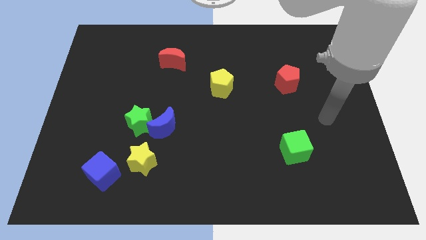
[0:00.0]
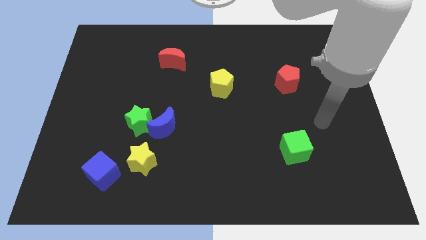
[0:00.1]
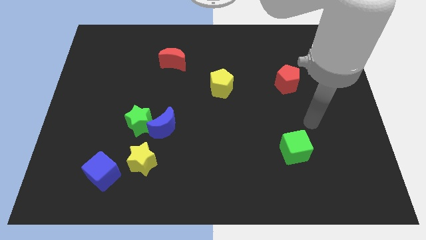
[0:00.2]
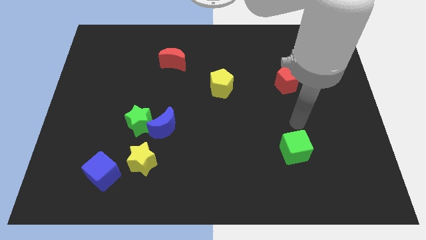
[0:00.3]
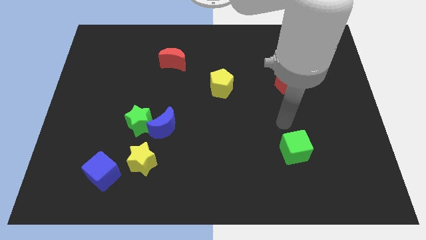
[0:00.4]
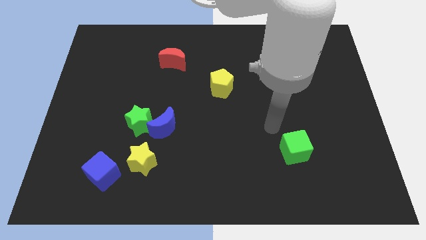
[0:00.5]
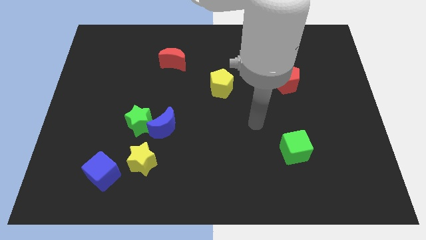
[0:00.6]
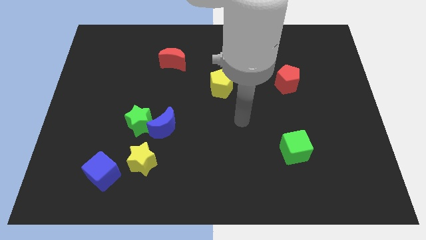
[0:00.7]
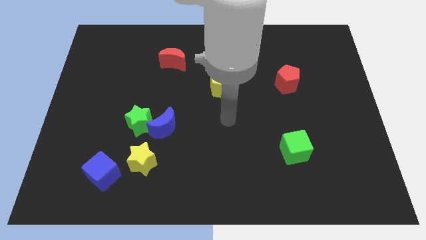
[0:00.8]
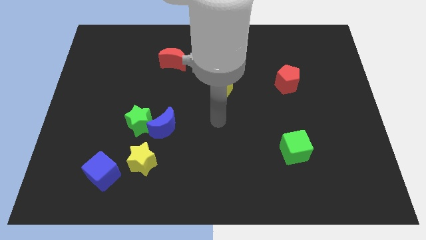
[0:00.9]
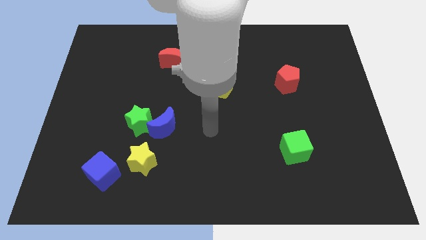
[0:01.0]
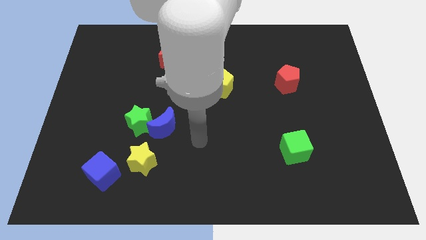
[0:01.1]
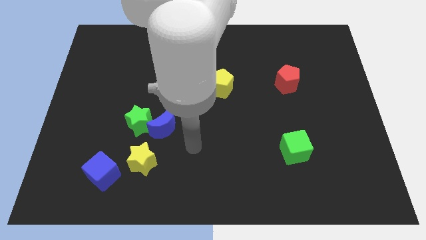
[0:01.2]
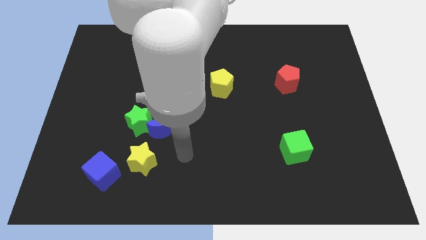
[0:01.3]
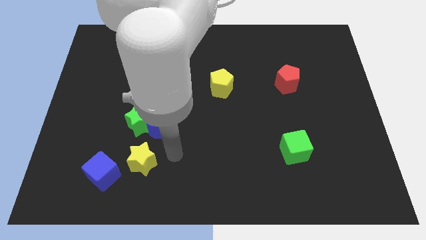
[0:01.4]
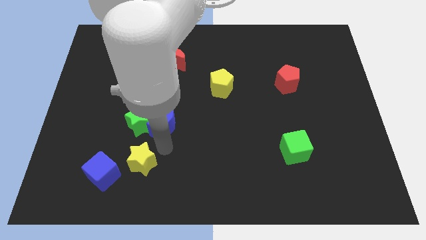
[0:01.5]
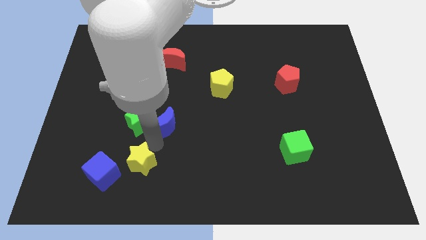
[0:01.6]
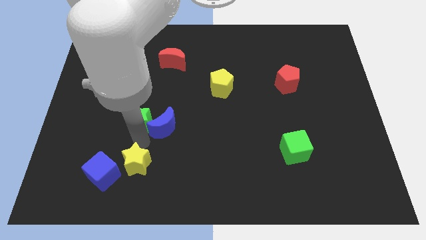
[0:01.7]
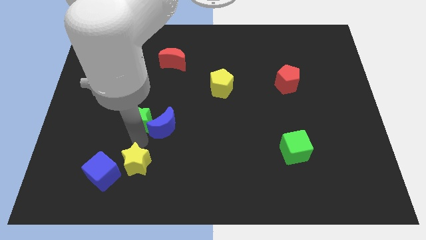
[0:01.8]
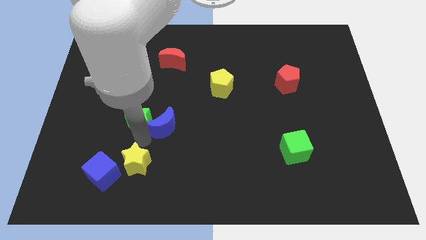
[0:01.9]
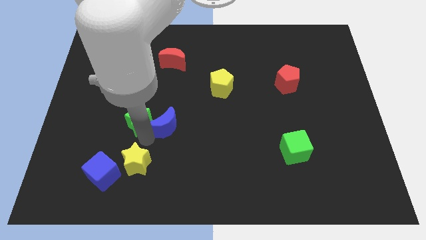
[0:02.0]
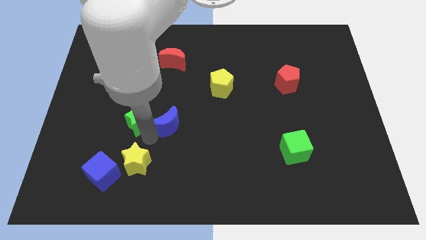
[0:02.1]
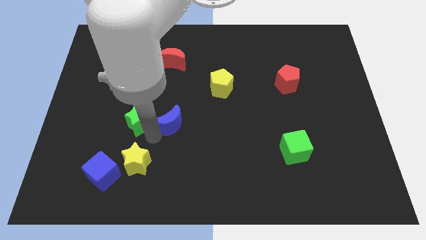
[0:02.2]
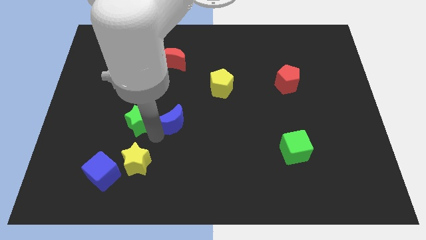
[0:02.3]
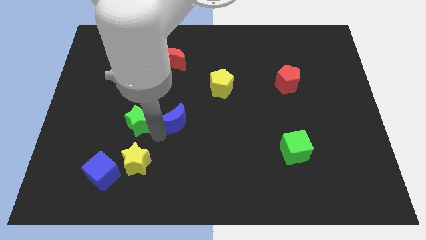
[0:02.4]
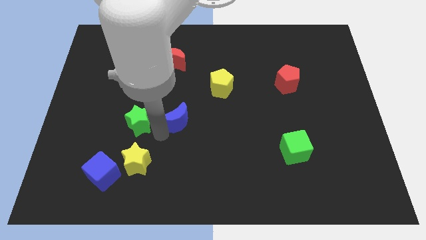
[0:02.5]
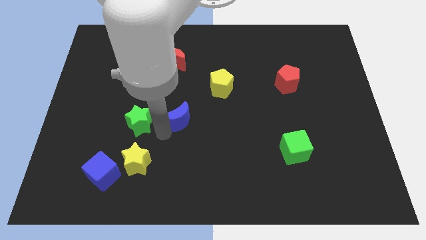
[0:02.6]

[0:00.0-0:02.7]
move the blue moon away from the green star and yellow star

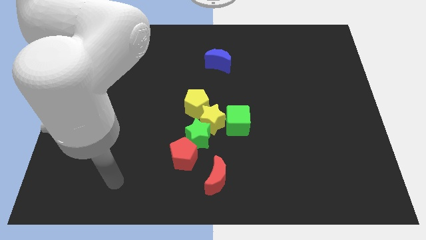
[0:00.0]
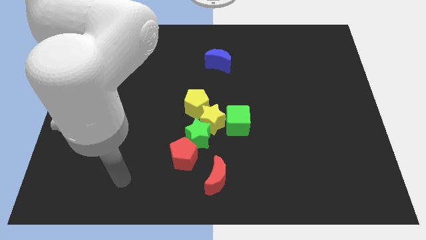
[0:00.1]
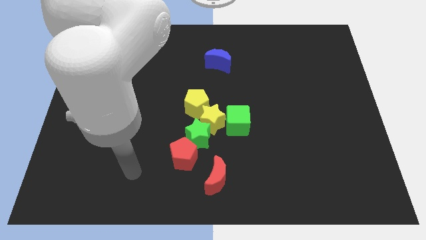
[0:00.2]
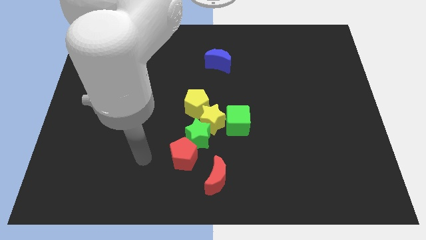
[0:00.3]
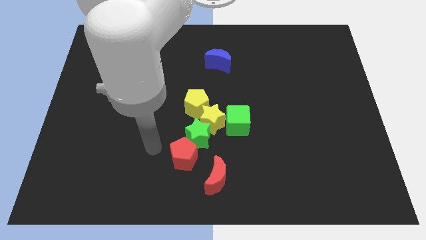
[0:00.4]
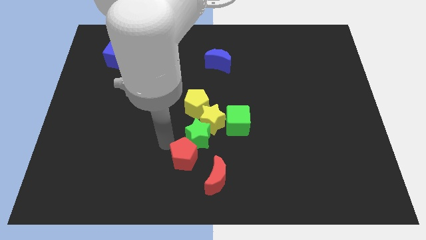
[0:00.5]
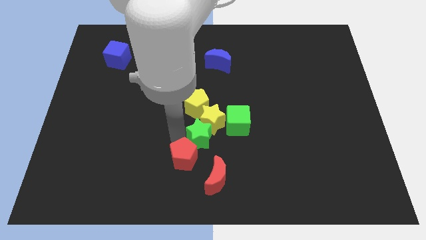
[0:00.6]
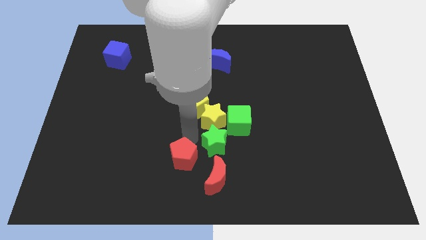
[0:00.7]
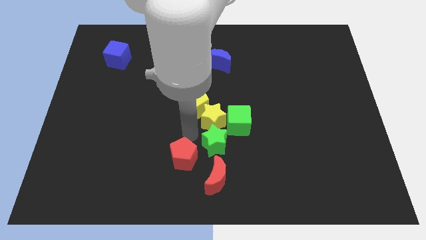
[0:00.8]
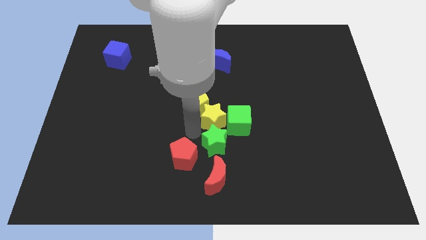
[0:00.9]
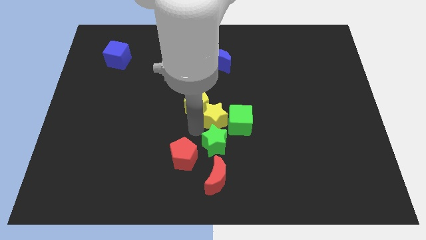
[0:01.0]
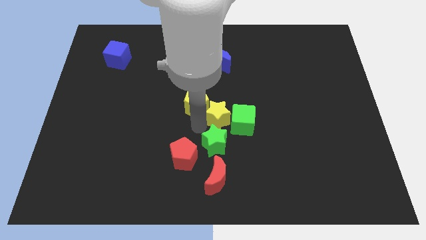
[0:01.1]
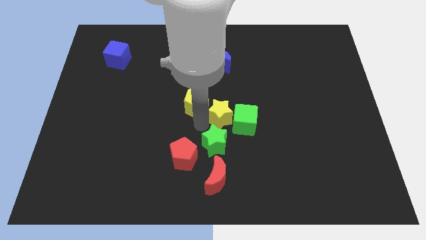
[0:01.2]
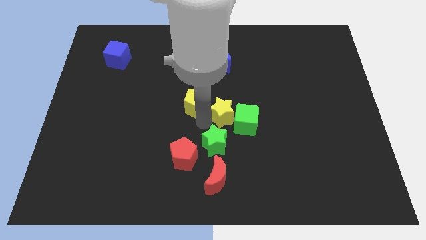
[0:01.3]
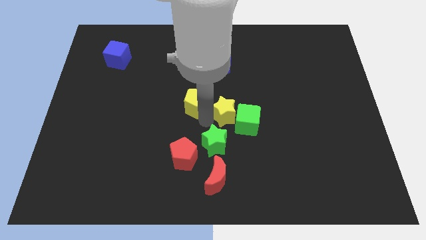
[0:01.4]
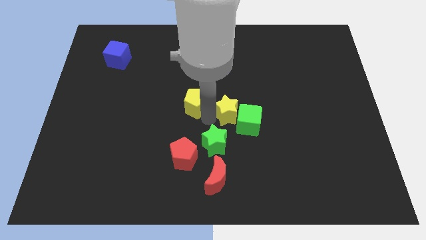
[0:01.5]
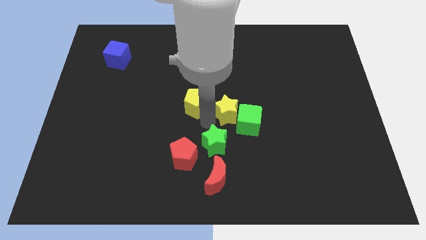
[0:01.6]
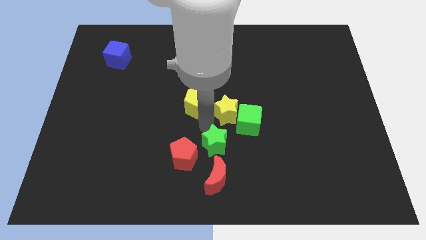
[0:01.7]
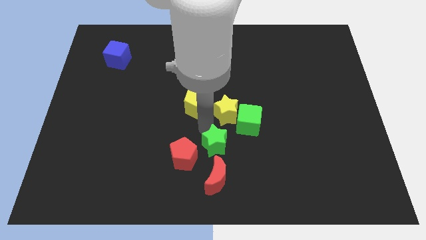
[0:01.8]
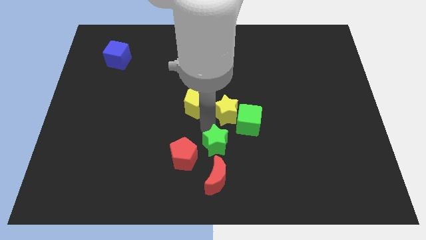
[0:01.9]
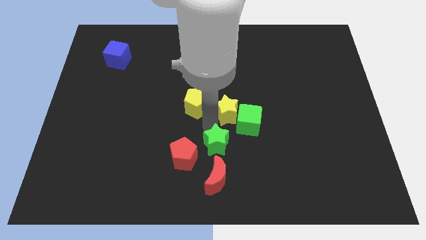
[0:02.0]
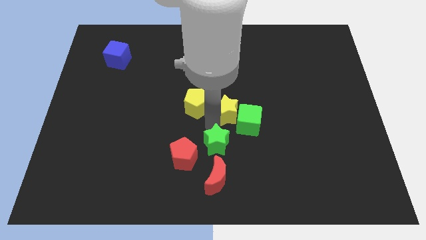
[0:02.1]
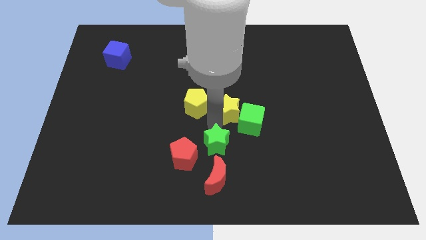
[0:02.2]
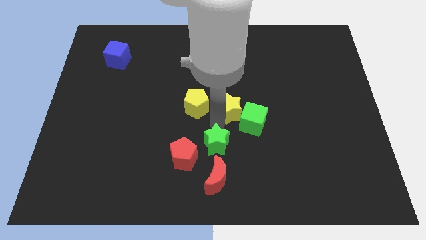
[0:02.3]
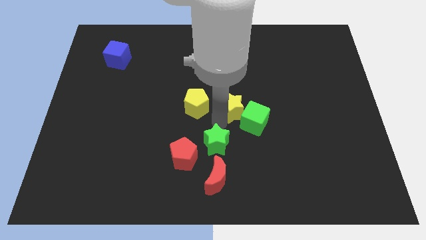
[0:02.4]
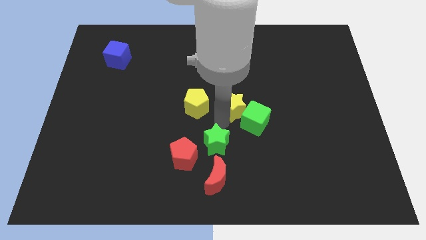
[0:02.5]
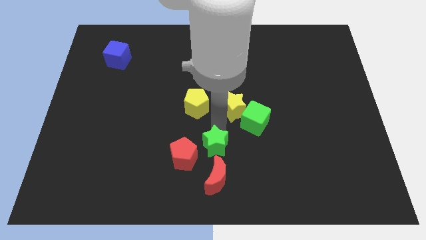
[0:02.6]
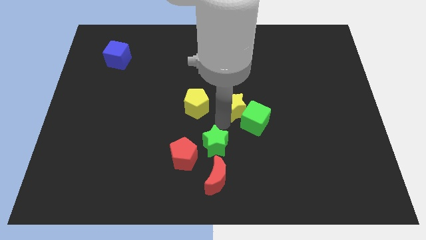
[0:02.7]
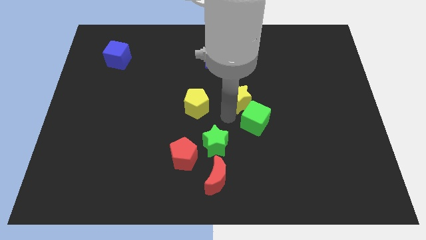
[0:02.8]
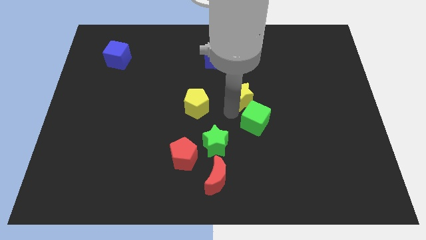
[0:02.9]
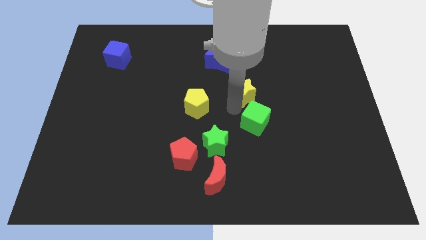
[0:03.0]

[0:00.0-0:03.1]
separate the yellow star from the green star, yellow pentagon, and green cube

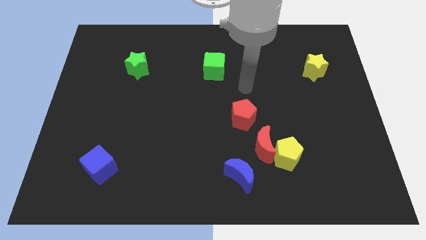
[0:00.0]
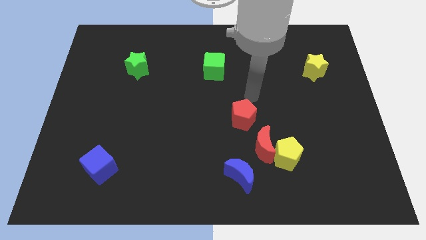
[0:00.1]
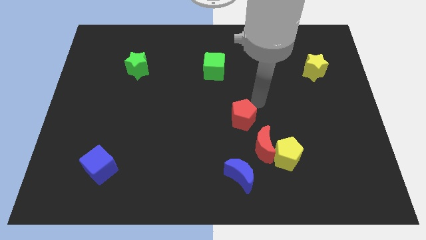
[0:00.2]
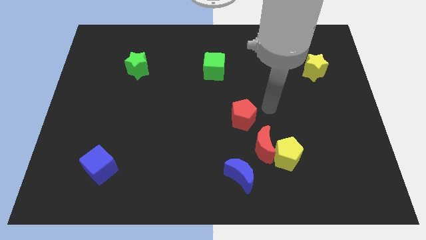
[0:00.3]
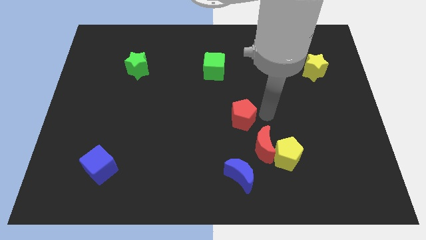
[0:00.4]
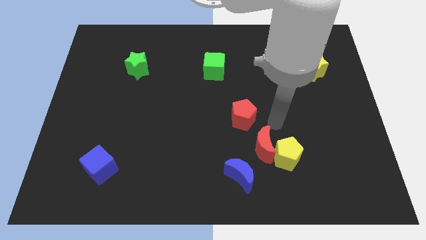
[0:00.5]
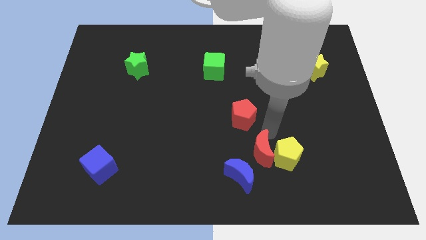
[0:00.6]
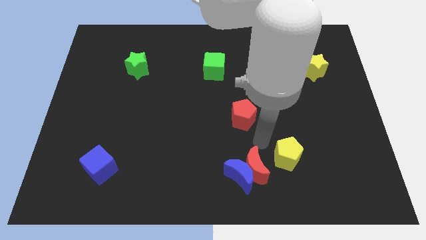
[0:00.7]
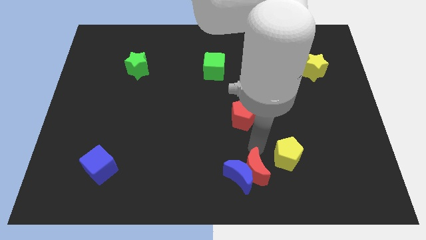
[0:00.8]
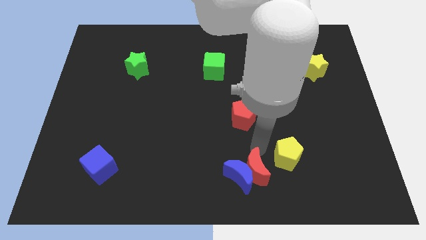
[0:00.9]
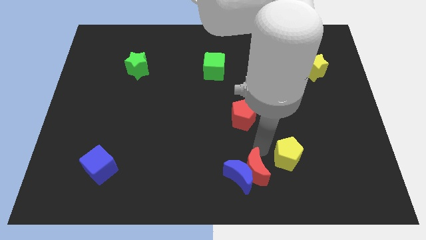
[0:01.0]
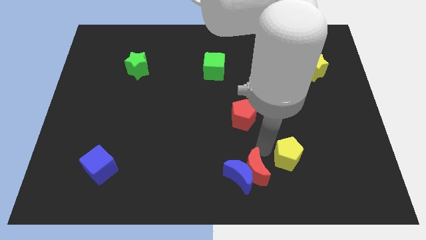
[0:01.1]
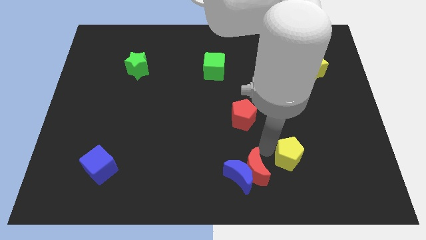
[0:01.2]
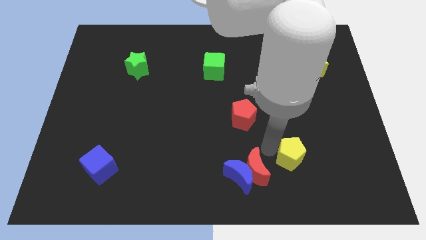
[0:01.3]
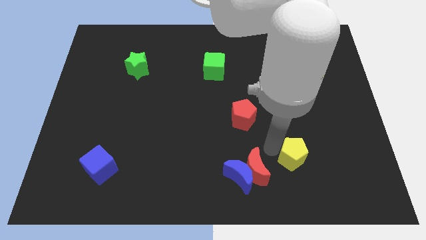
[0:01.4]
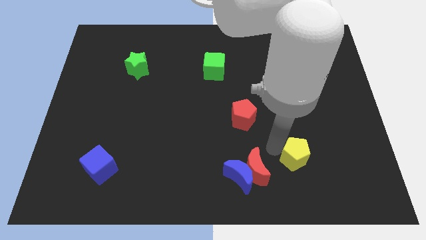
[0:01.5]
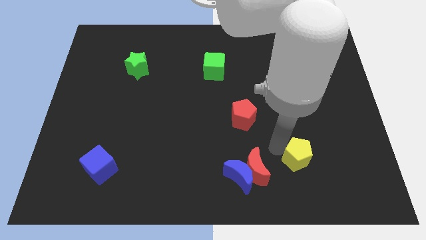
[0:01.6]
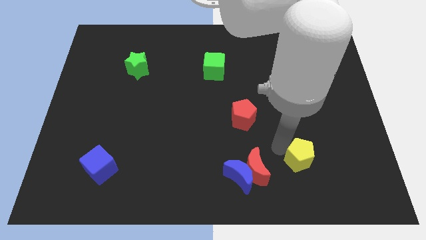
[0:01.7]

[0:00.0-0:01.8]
pull the yellow pentagon apart from the red moon

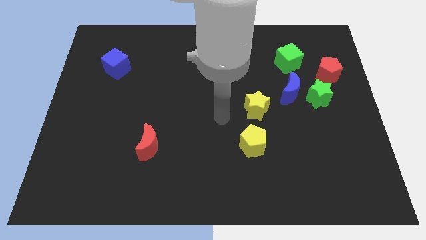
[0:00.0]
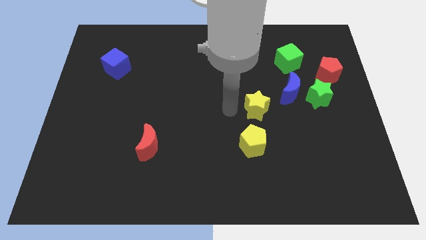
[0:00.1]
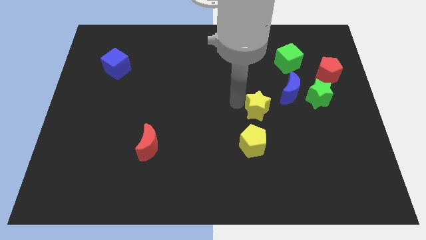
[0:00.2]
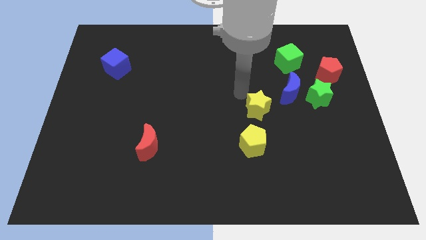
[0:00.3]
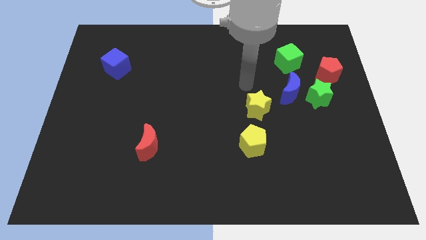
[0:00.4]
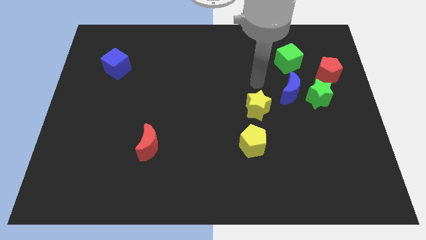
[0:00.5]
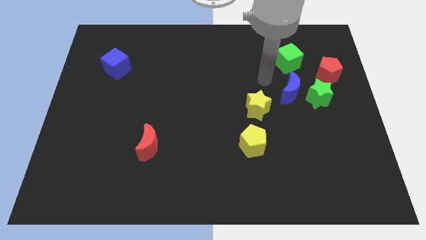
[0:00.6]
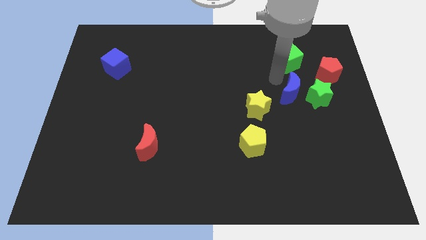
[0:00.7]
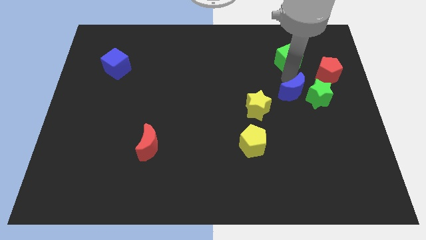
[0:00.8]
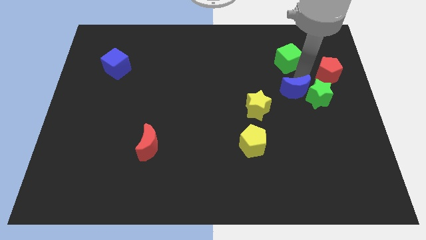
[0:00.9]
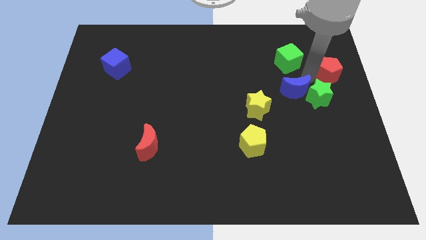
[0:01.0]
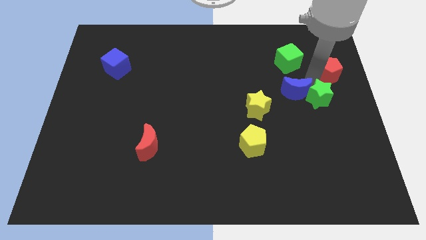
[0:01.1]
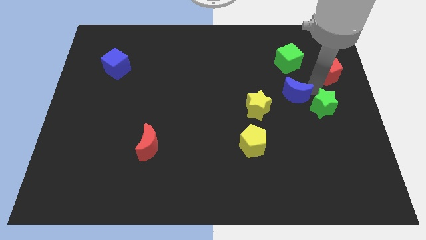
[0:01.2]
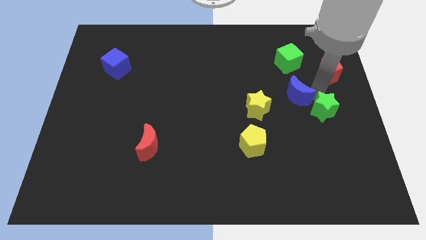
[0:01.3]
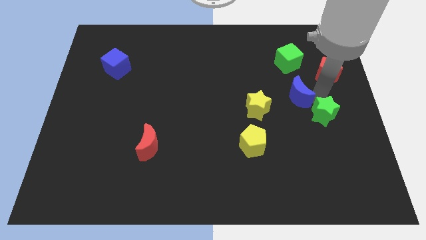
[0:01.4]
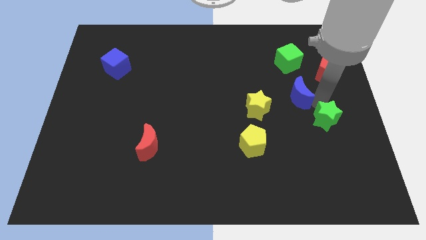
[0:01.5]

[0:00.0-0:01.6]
pull the green star apart from the blue moon and red pentagon

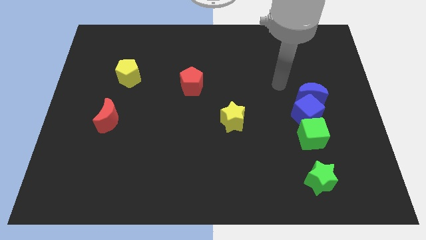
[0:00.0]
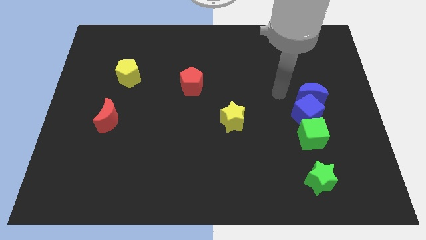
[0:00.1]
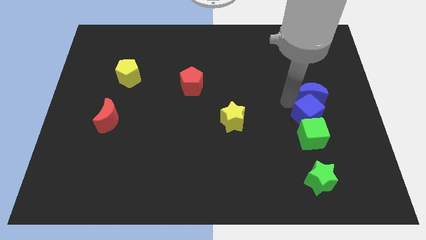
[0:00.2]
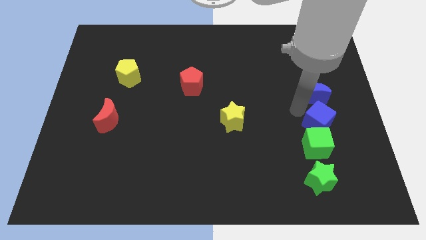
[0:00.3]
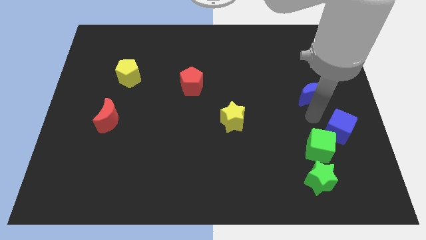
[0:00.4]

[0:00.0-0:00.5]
pull the blue moon apart from the blue cube
